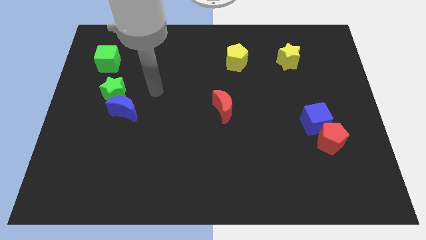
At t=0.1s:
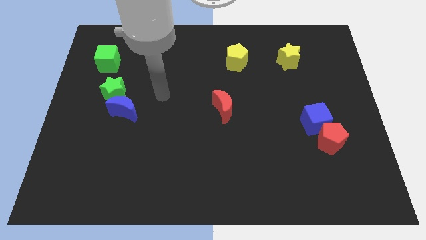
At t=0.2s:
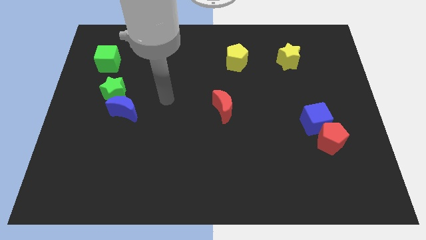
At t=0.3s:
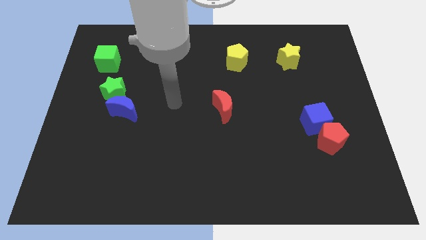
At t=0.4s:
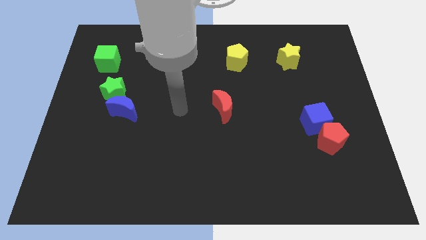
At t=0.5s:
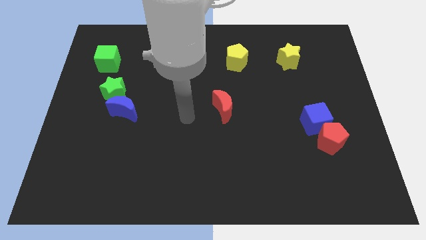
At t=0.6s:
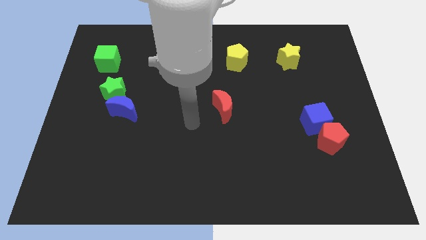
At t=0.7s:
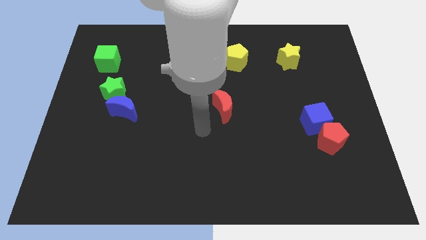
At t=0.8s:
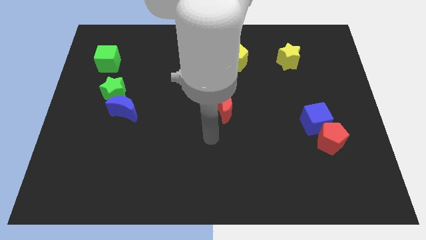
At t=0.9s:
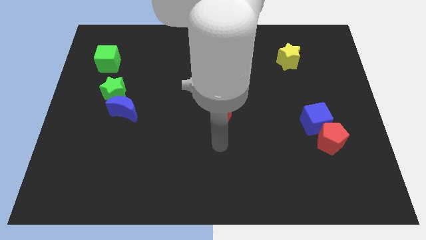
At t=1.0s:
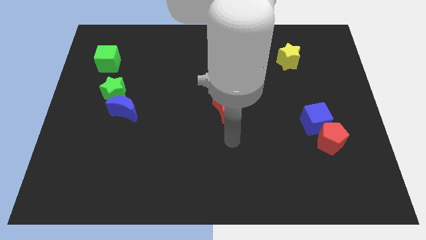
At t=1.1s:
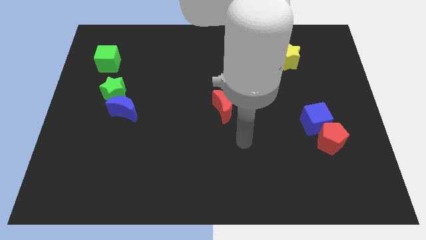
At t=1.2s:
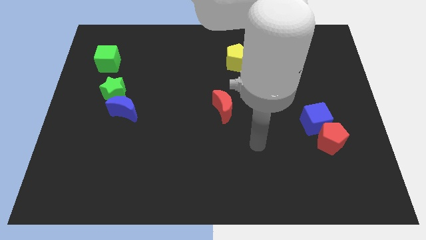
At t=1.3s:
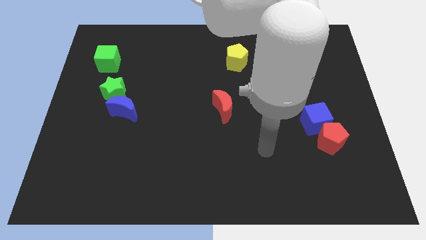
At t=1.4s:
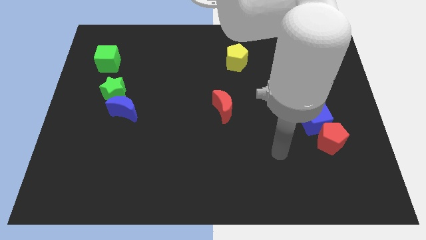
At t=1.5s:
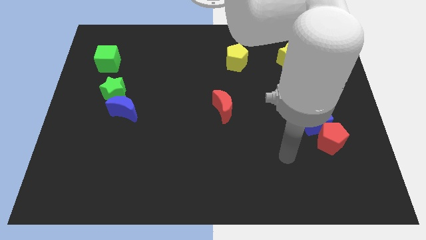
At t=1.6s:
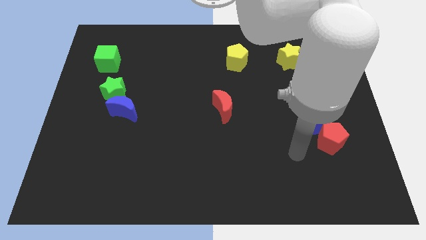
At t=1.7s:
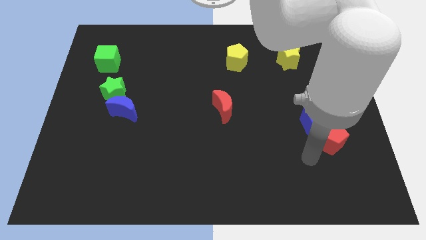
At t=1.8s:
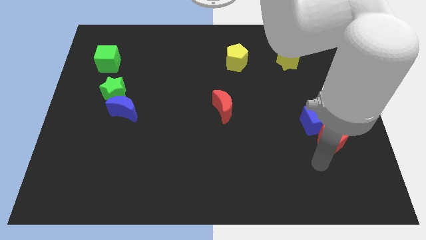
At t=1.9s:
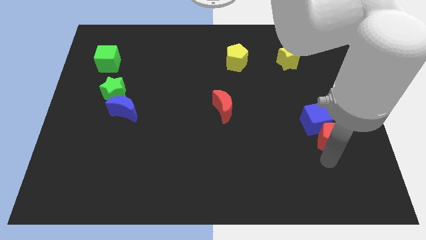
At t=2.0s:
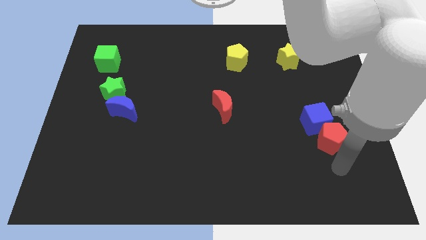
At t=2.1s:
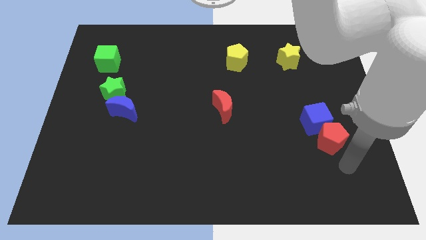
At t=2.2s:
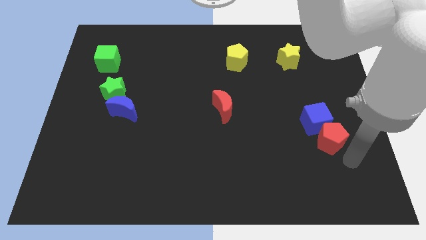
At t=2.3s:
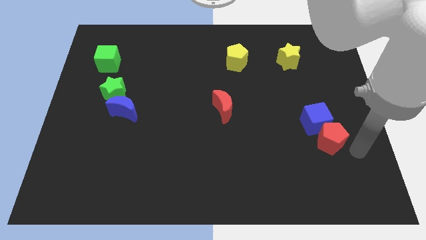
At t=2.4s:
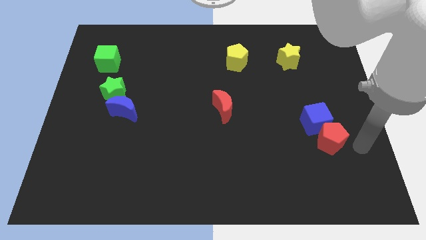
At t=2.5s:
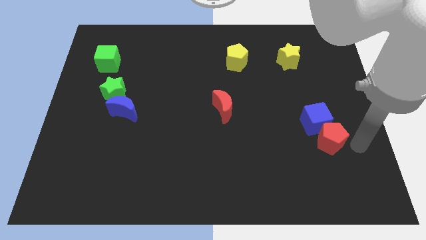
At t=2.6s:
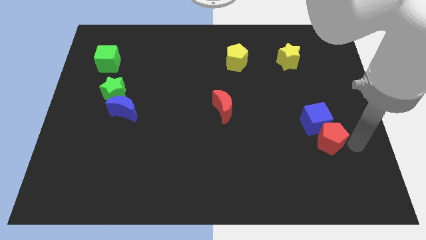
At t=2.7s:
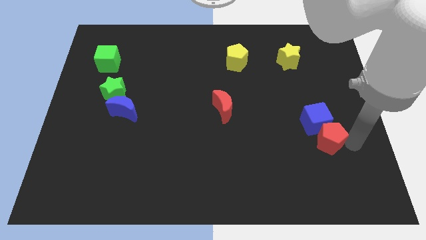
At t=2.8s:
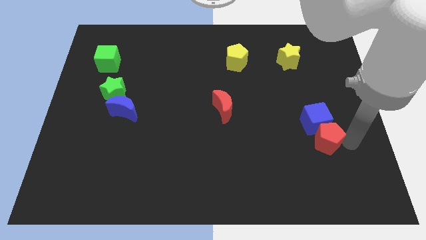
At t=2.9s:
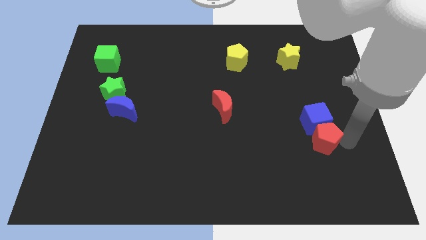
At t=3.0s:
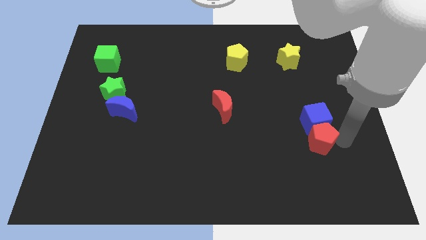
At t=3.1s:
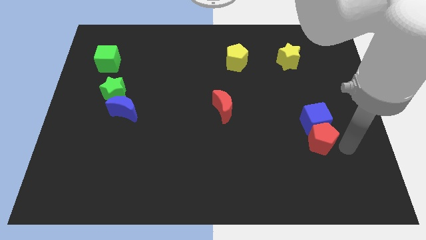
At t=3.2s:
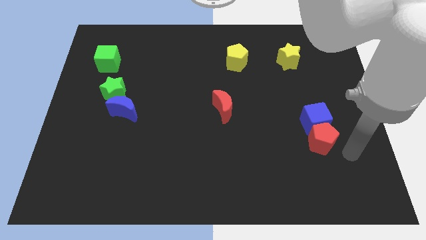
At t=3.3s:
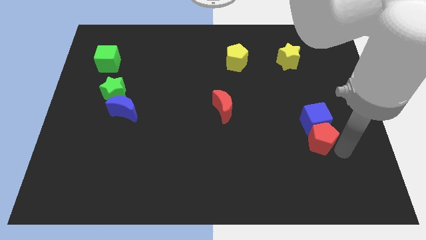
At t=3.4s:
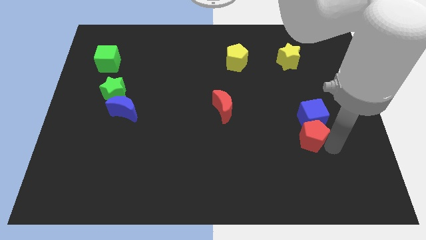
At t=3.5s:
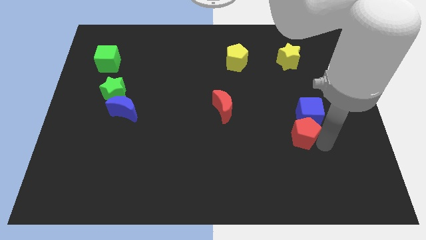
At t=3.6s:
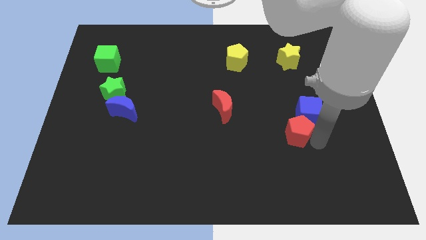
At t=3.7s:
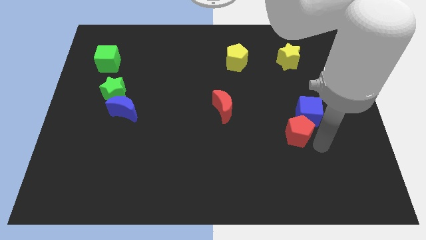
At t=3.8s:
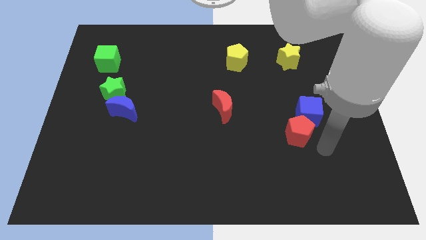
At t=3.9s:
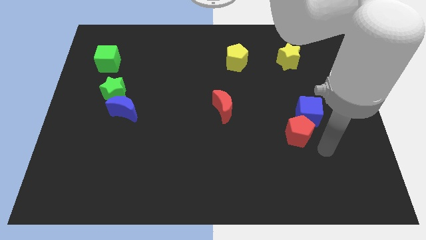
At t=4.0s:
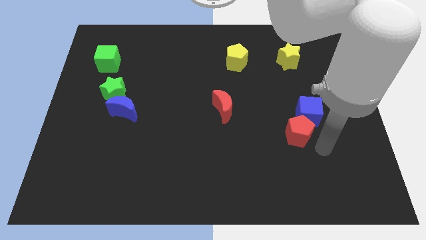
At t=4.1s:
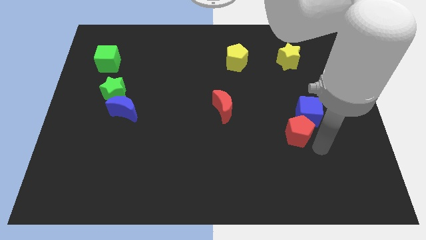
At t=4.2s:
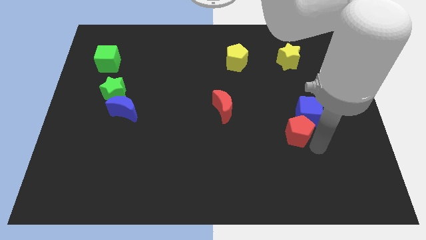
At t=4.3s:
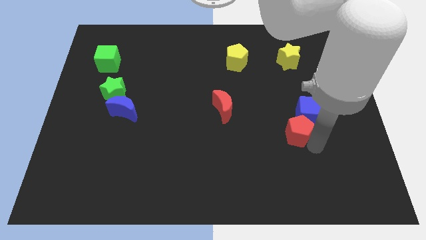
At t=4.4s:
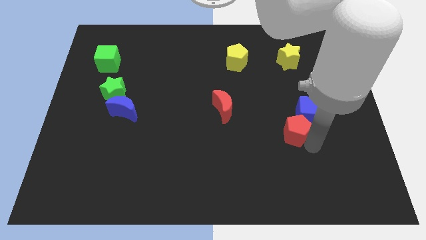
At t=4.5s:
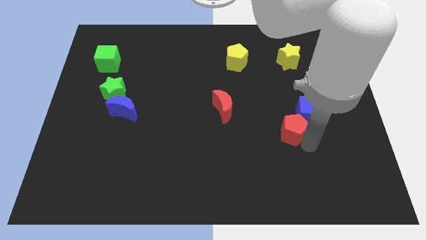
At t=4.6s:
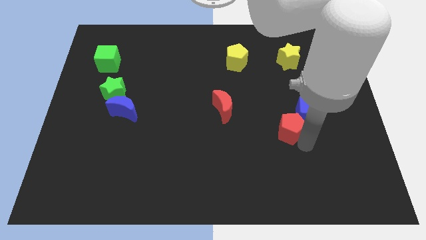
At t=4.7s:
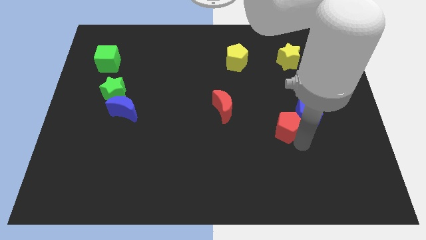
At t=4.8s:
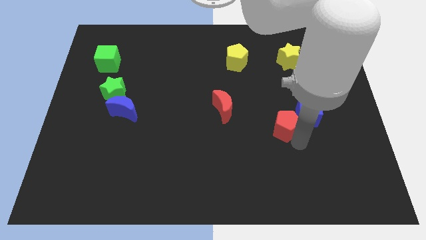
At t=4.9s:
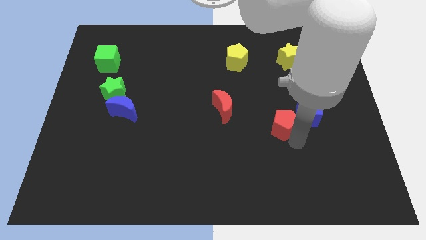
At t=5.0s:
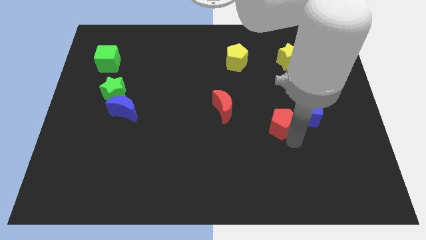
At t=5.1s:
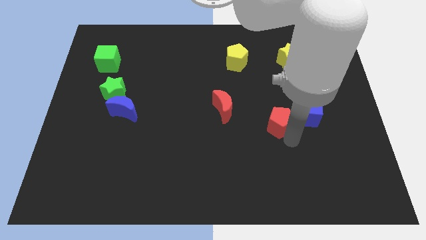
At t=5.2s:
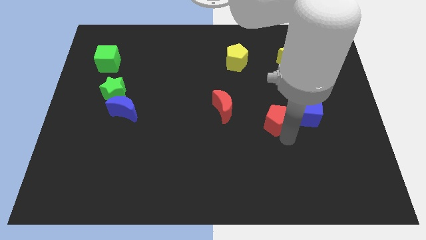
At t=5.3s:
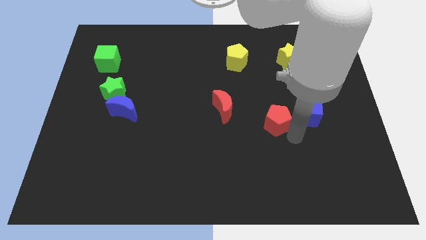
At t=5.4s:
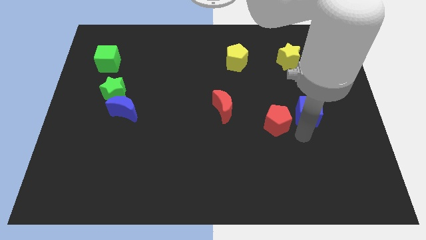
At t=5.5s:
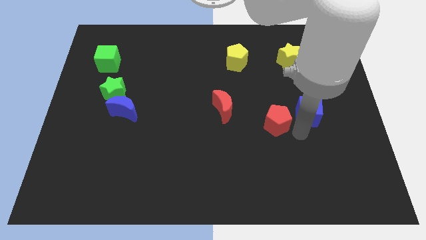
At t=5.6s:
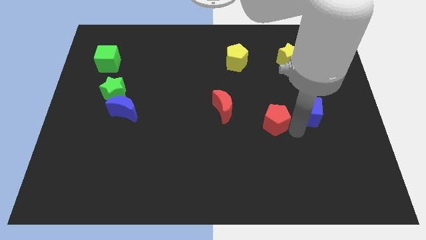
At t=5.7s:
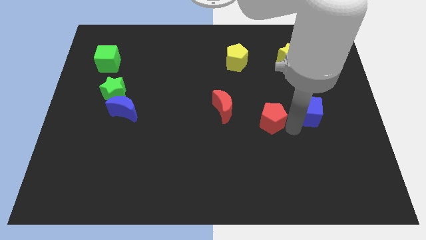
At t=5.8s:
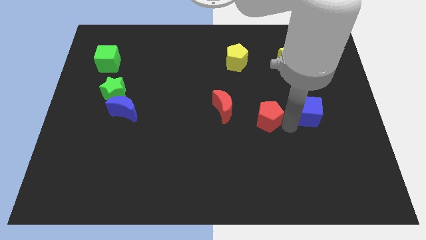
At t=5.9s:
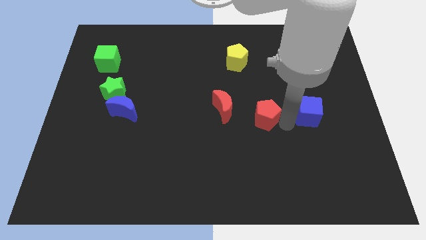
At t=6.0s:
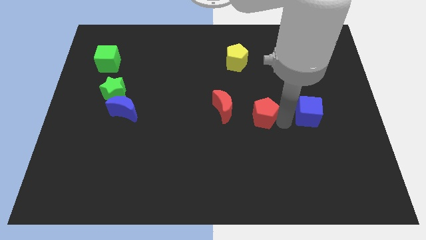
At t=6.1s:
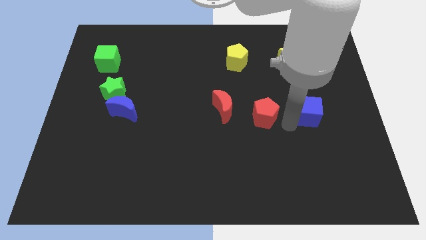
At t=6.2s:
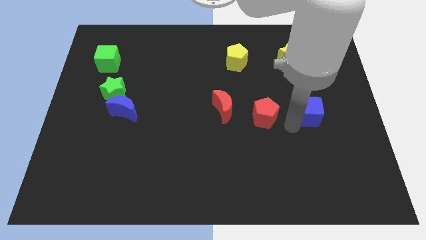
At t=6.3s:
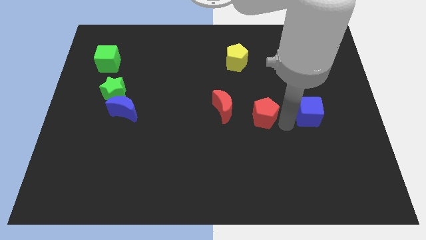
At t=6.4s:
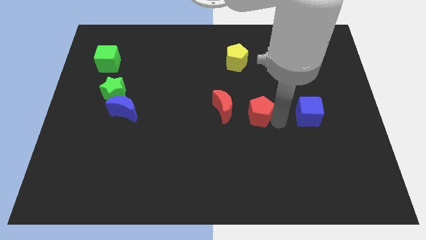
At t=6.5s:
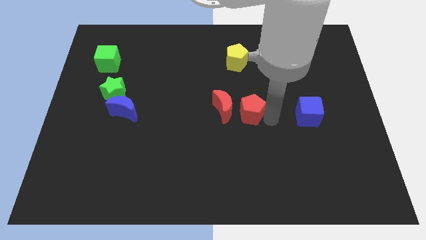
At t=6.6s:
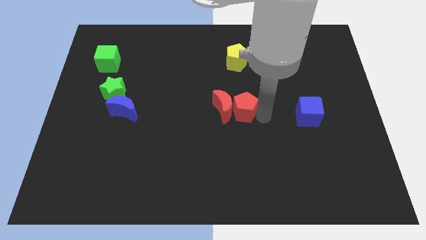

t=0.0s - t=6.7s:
move the red pentagon close to the red moon
